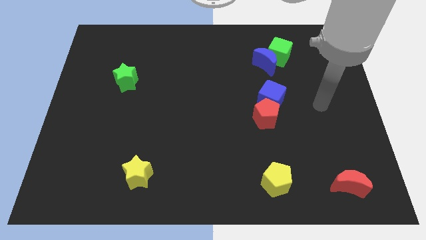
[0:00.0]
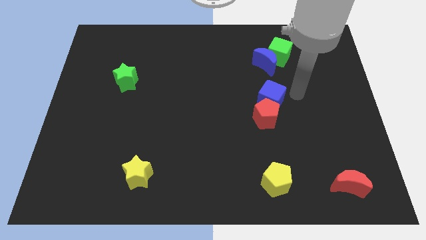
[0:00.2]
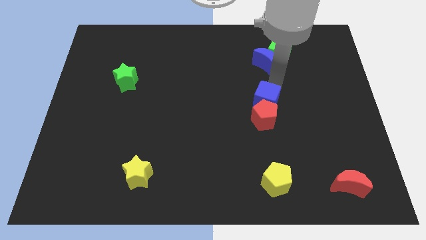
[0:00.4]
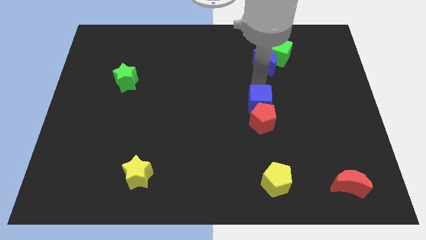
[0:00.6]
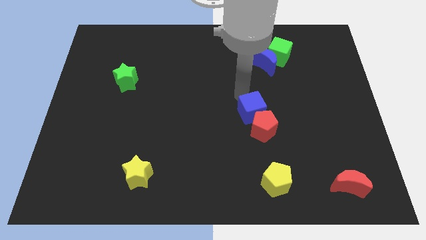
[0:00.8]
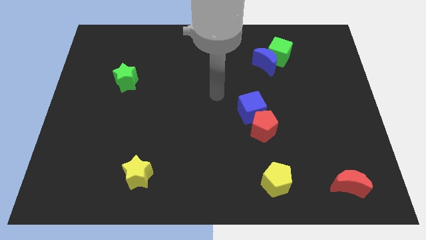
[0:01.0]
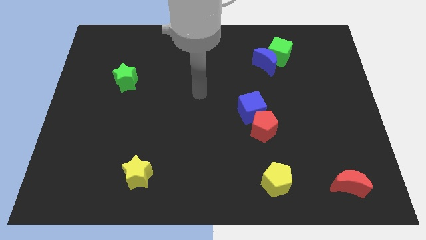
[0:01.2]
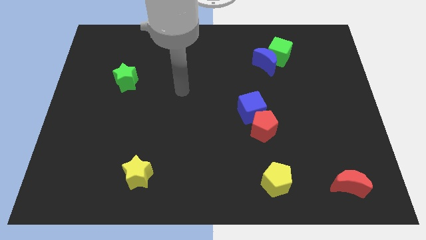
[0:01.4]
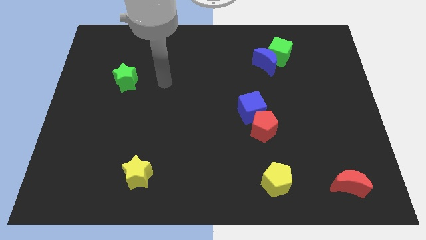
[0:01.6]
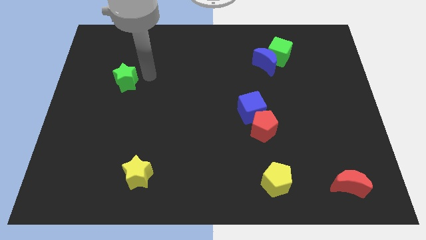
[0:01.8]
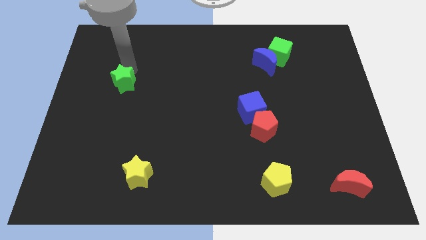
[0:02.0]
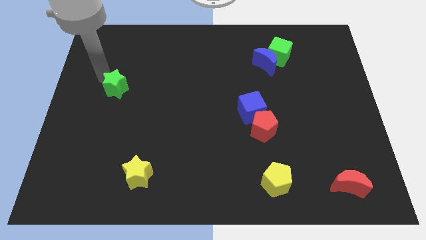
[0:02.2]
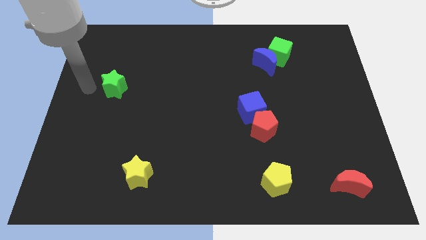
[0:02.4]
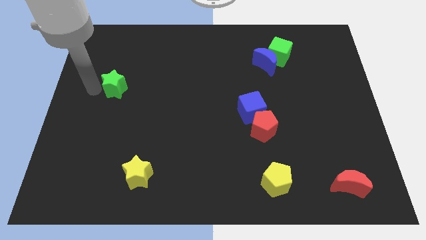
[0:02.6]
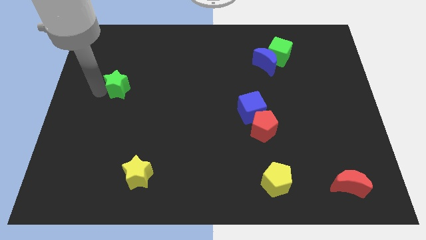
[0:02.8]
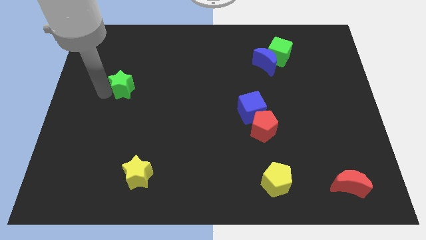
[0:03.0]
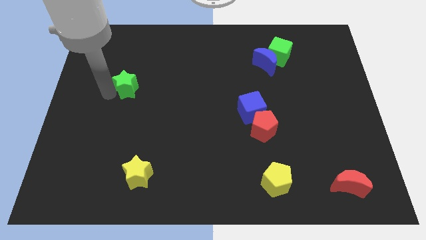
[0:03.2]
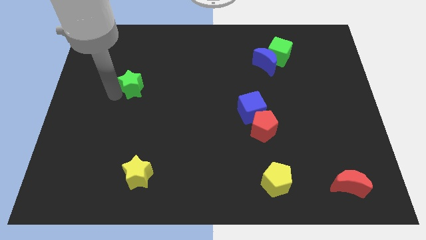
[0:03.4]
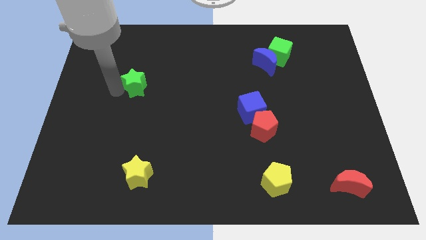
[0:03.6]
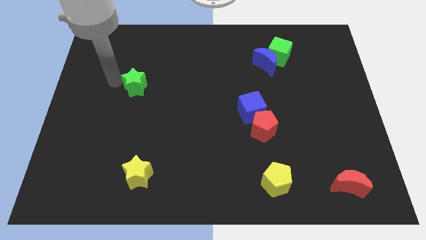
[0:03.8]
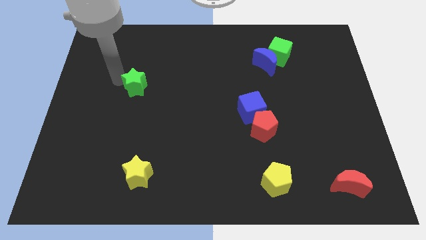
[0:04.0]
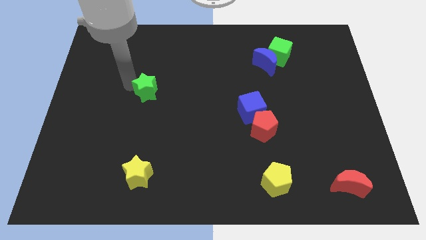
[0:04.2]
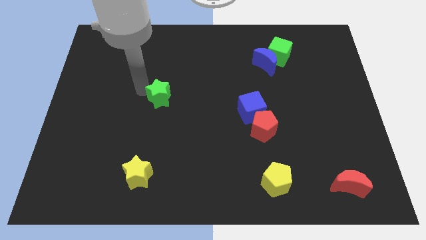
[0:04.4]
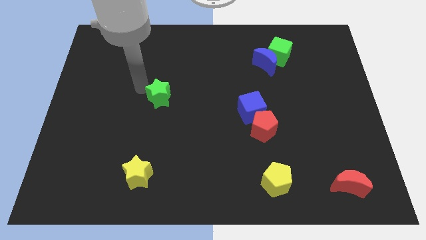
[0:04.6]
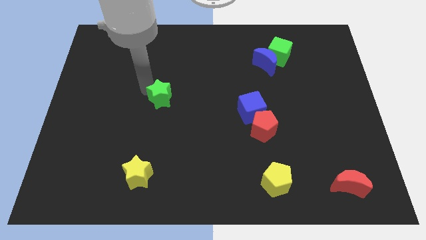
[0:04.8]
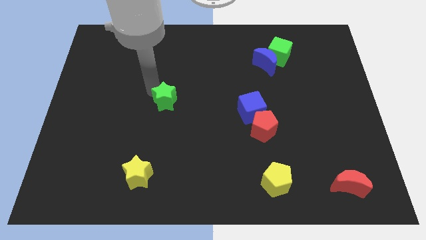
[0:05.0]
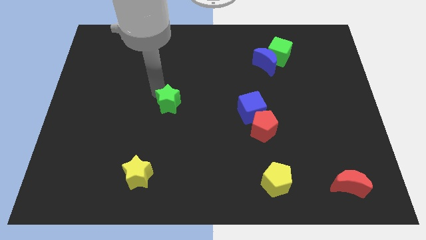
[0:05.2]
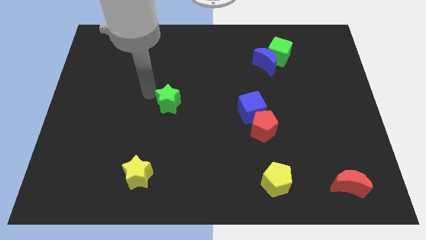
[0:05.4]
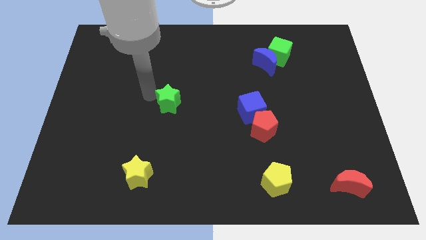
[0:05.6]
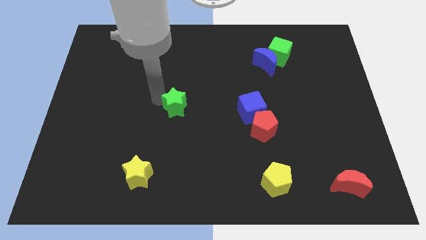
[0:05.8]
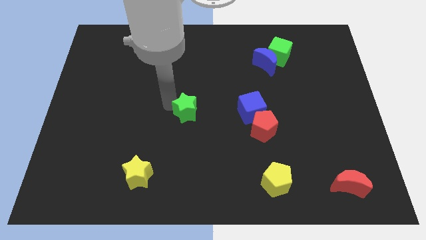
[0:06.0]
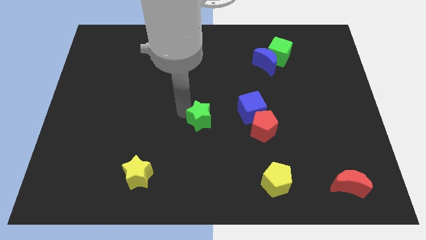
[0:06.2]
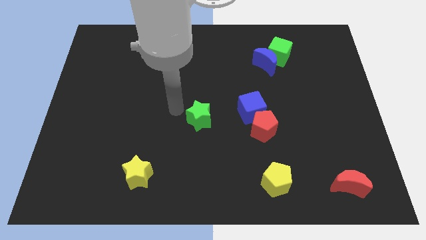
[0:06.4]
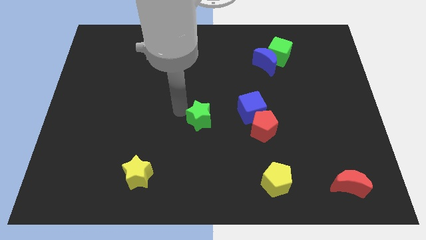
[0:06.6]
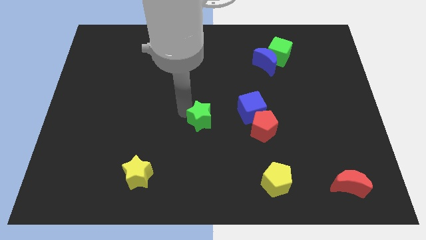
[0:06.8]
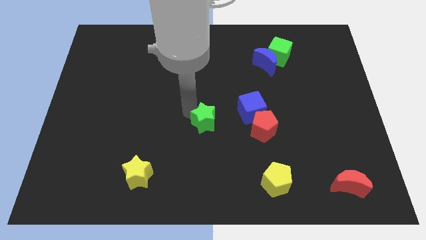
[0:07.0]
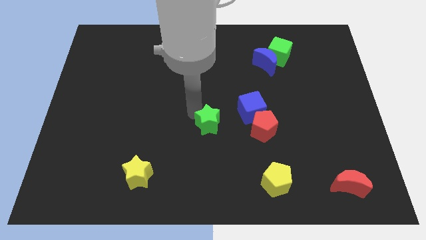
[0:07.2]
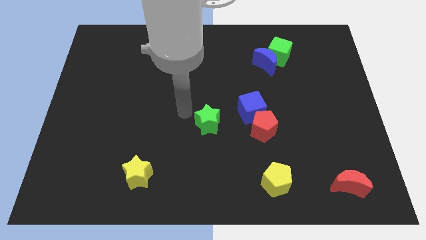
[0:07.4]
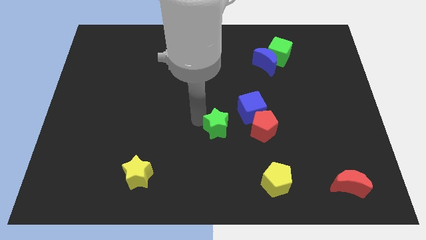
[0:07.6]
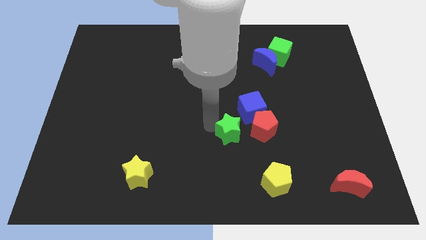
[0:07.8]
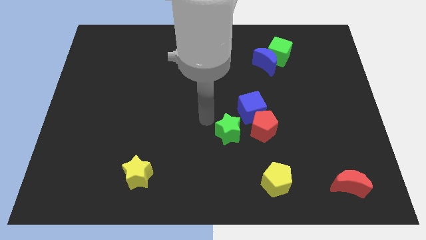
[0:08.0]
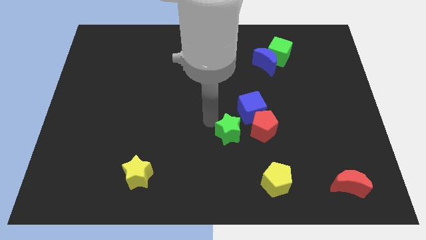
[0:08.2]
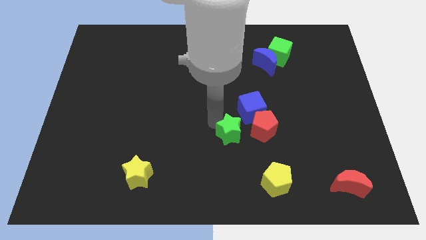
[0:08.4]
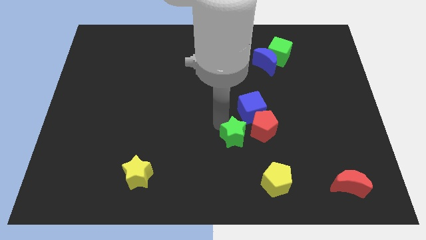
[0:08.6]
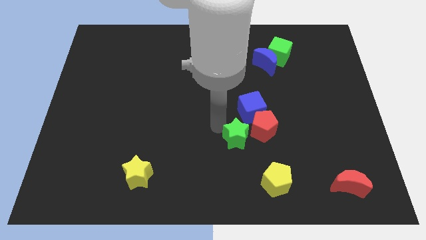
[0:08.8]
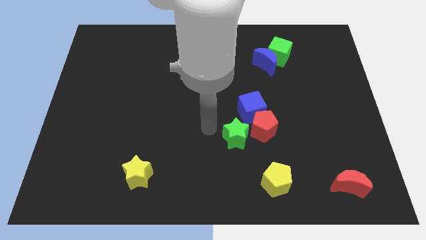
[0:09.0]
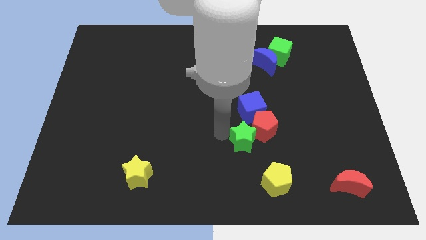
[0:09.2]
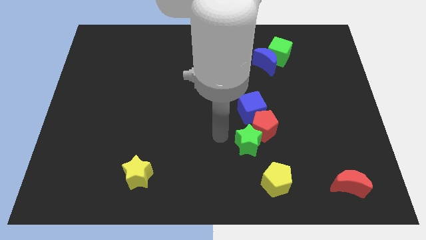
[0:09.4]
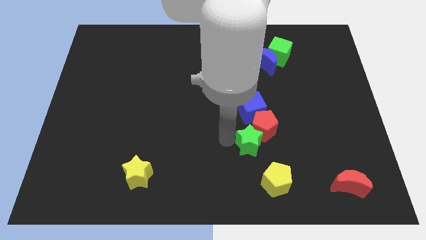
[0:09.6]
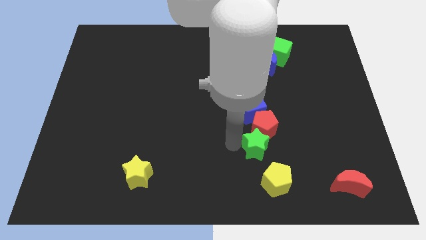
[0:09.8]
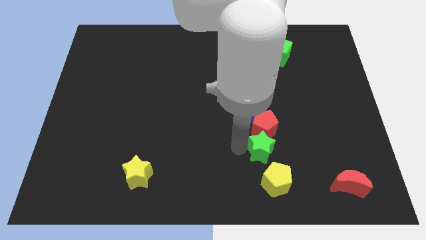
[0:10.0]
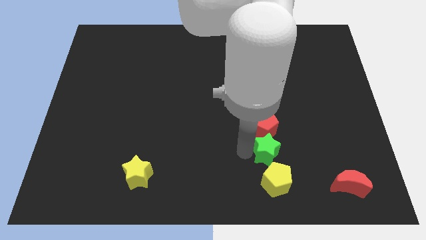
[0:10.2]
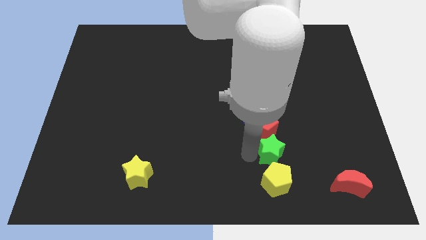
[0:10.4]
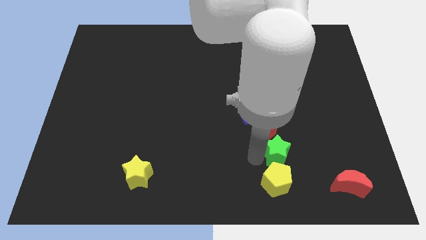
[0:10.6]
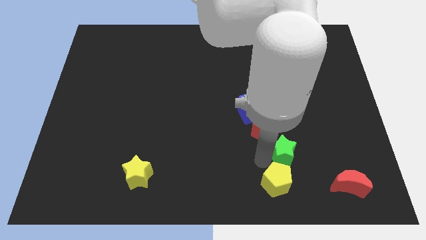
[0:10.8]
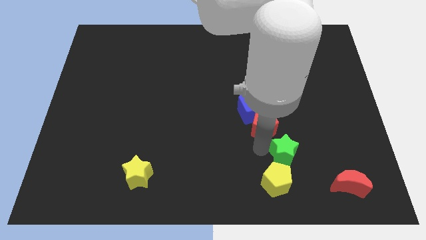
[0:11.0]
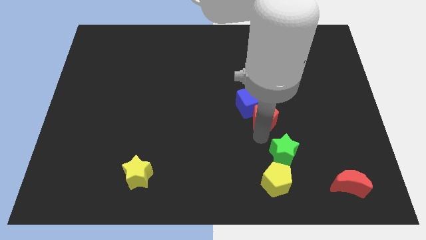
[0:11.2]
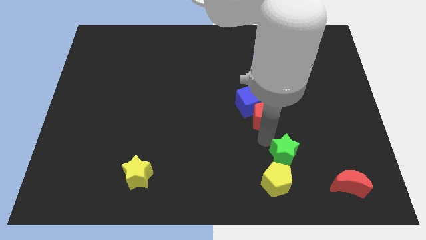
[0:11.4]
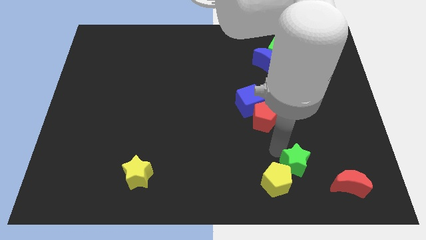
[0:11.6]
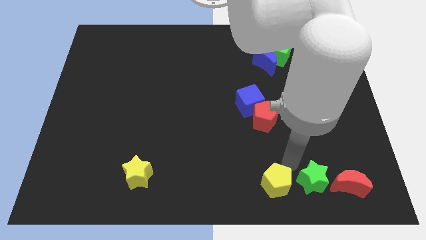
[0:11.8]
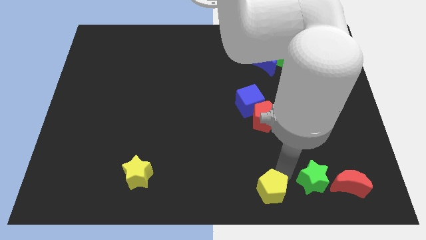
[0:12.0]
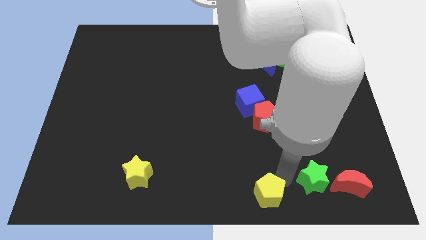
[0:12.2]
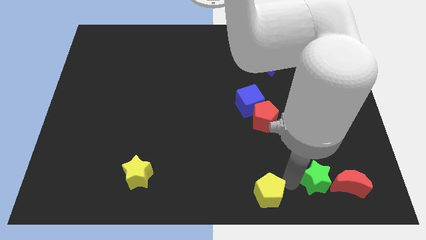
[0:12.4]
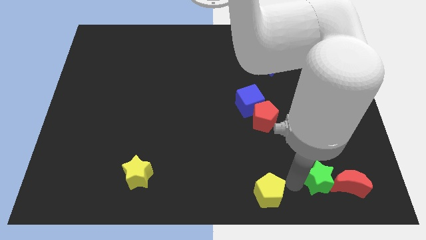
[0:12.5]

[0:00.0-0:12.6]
push the green star to the red moon

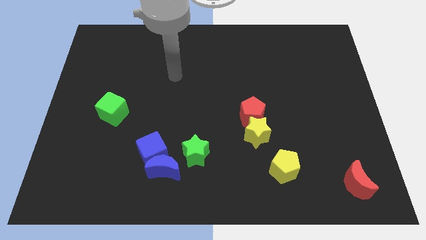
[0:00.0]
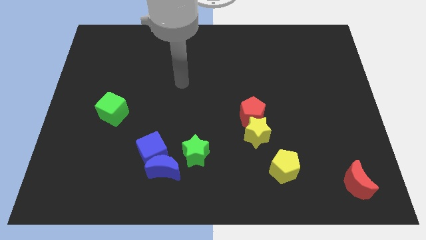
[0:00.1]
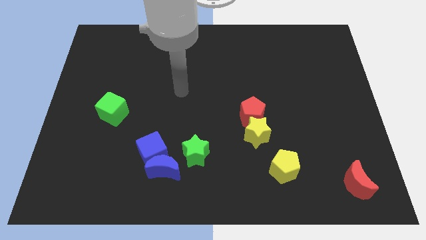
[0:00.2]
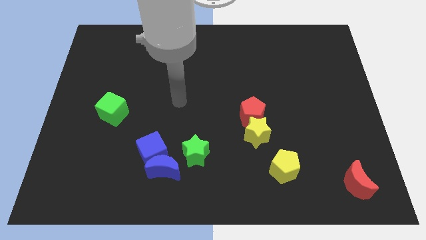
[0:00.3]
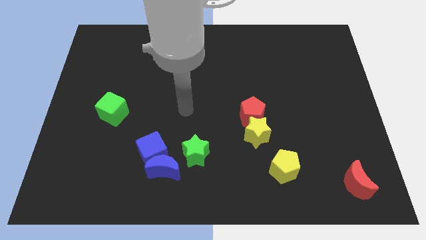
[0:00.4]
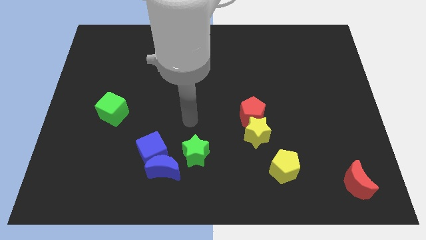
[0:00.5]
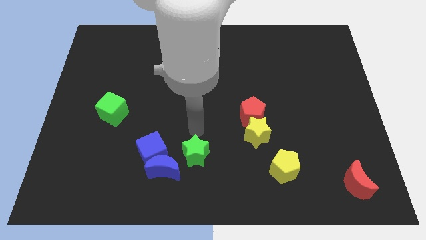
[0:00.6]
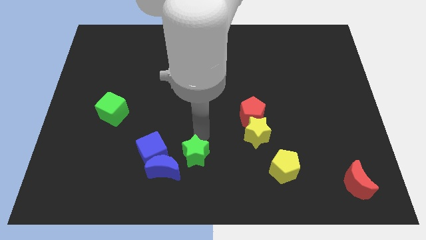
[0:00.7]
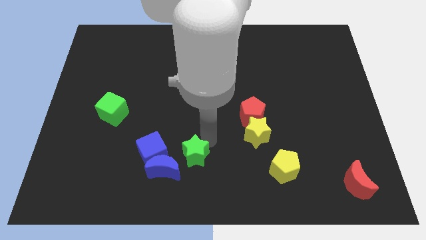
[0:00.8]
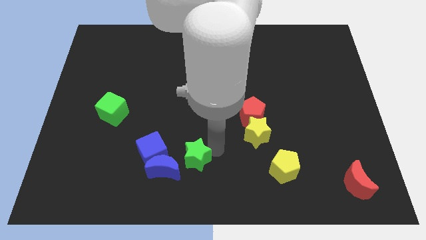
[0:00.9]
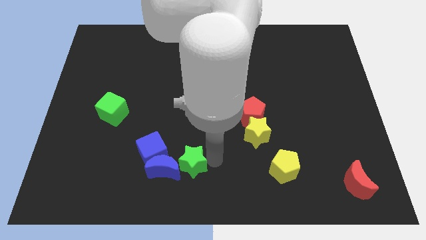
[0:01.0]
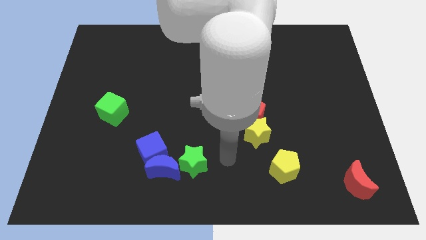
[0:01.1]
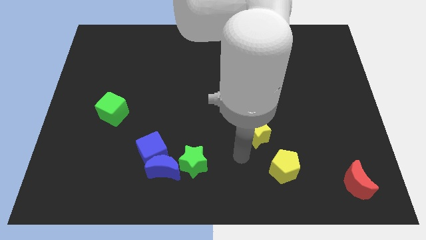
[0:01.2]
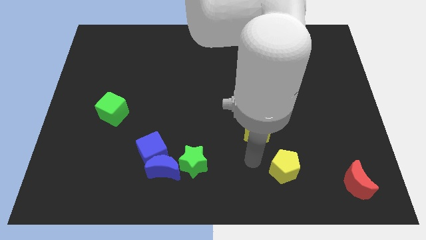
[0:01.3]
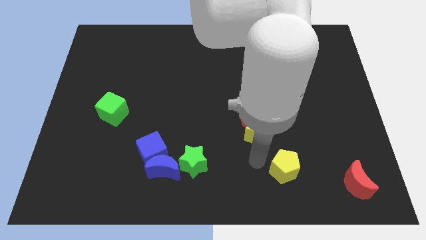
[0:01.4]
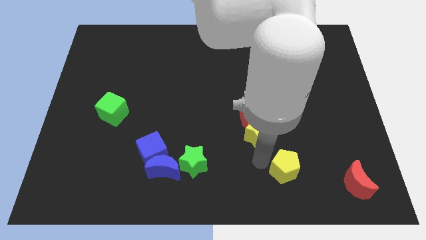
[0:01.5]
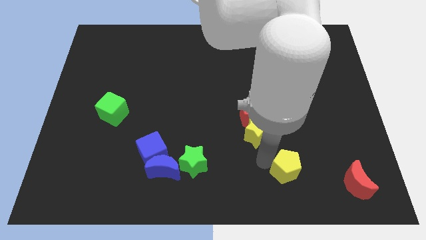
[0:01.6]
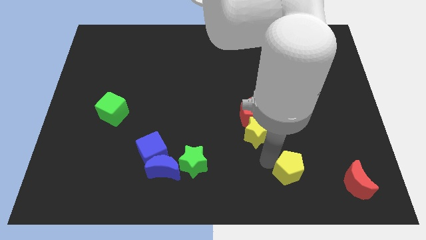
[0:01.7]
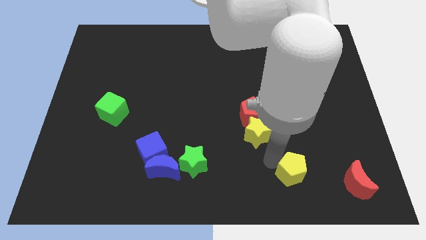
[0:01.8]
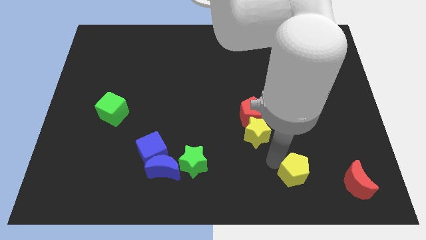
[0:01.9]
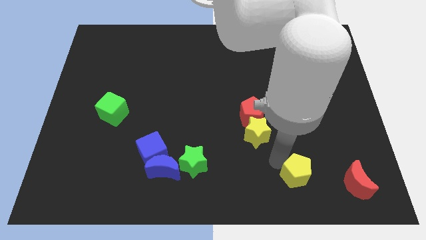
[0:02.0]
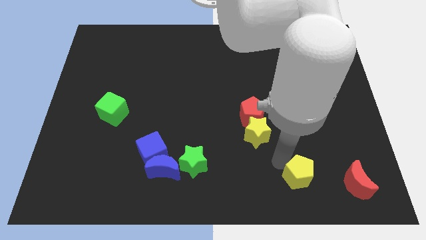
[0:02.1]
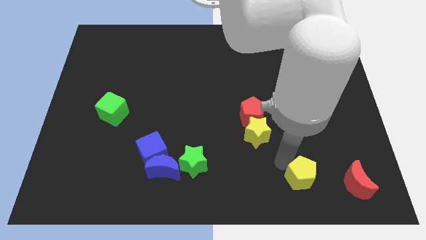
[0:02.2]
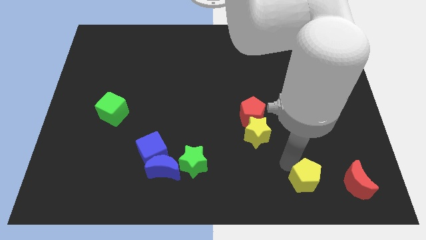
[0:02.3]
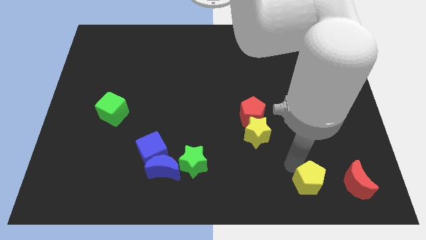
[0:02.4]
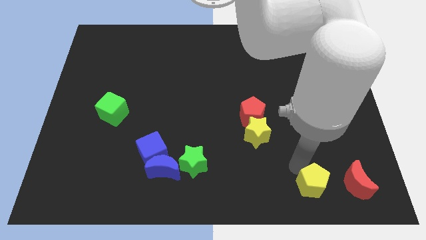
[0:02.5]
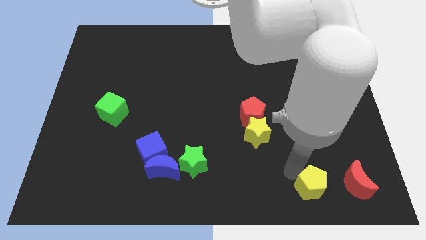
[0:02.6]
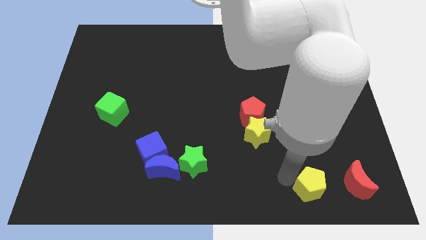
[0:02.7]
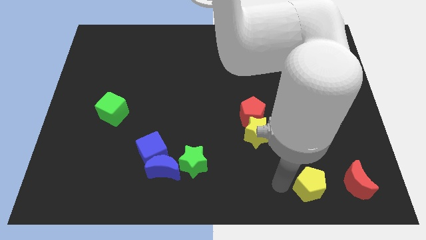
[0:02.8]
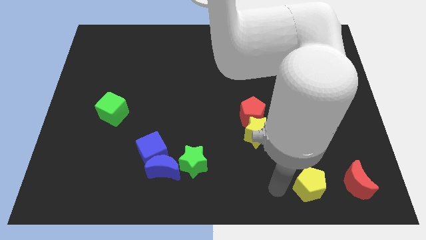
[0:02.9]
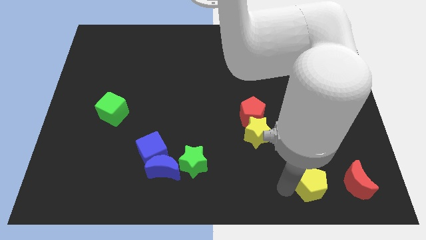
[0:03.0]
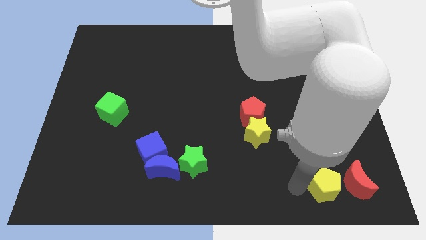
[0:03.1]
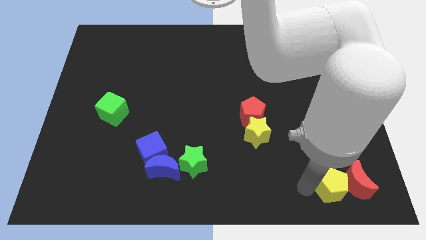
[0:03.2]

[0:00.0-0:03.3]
slide the yellow pentagon to the red moon
